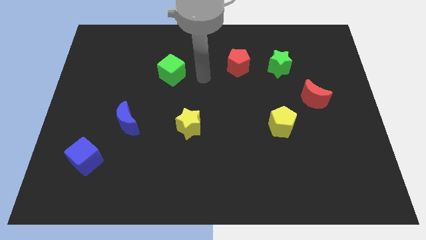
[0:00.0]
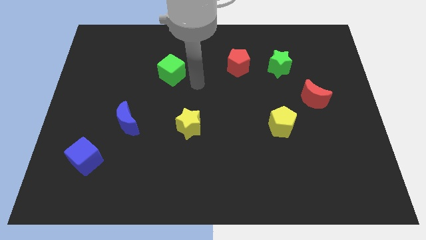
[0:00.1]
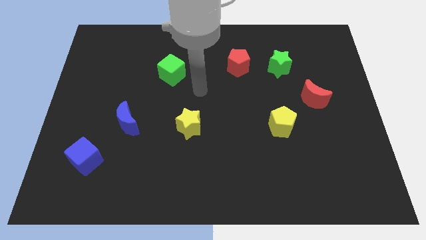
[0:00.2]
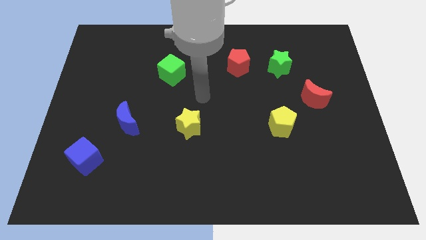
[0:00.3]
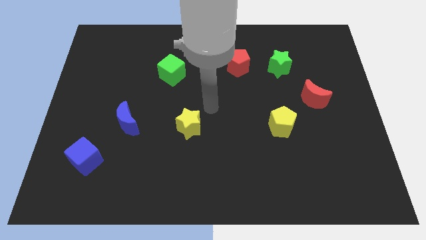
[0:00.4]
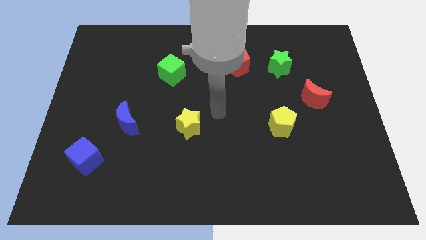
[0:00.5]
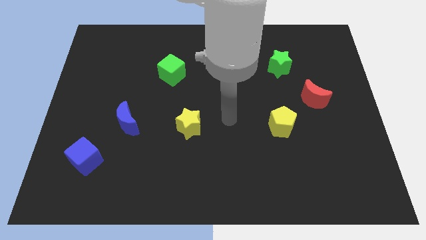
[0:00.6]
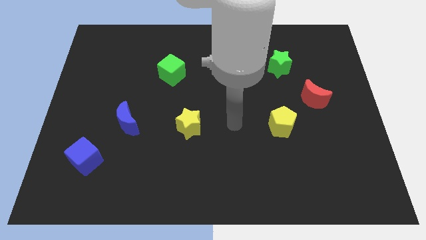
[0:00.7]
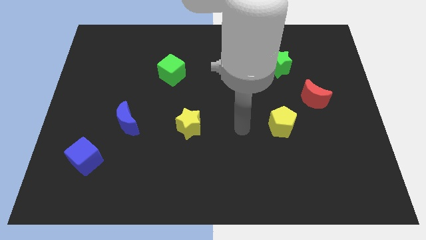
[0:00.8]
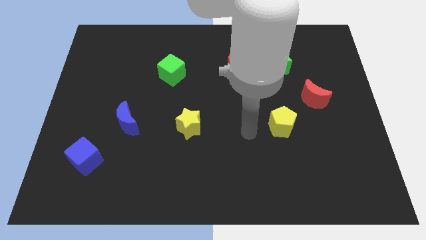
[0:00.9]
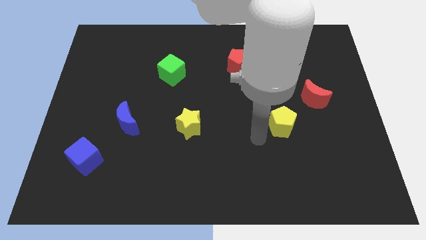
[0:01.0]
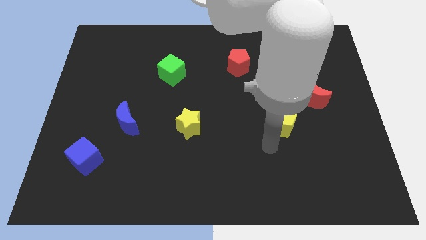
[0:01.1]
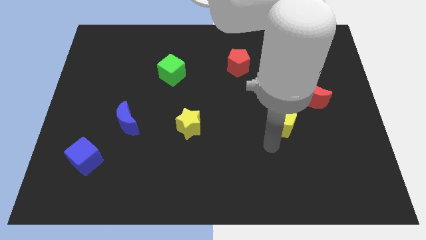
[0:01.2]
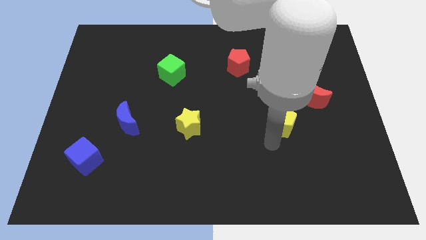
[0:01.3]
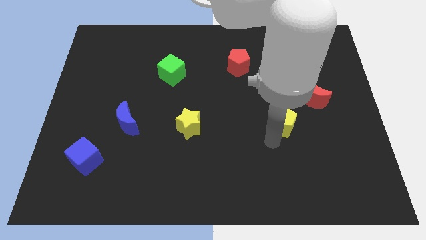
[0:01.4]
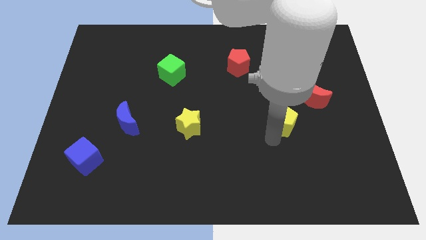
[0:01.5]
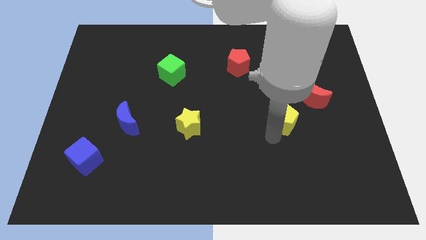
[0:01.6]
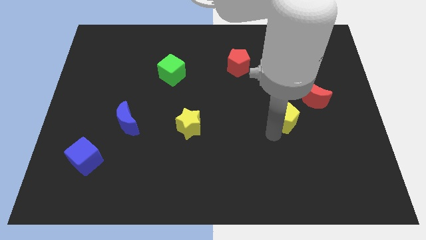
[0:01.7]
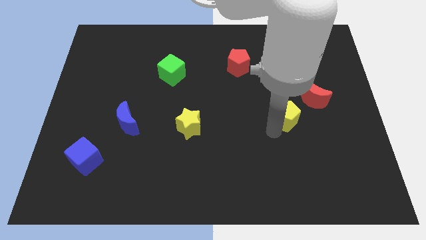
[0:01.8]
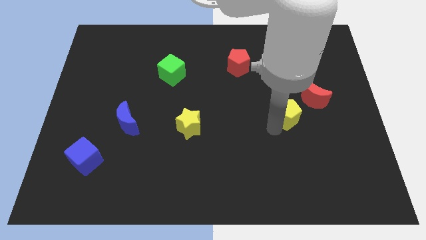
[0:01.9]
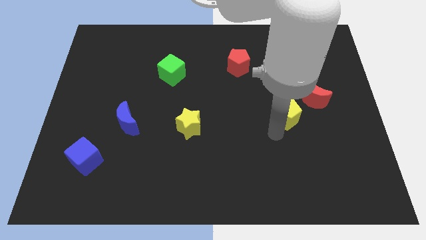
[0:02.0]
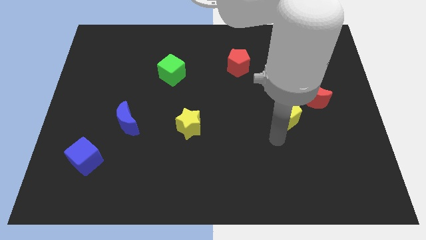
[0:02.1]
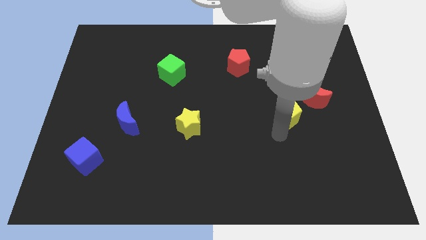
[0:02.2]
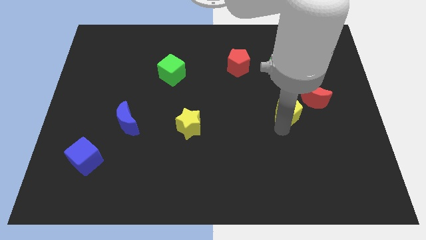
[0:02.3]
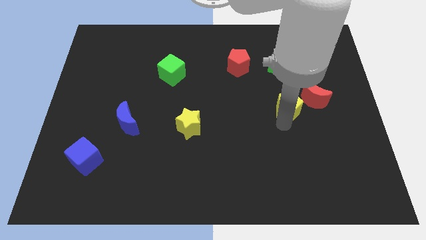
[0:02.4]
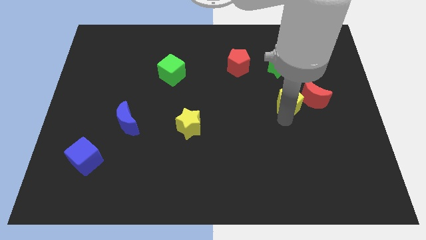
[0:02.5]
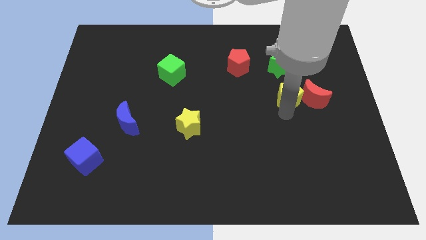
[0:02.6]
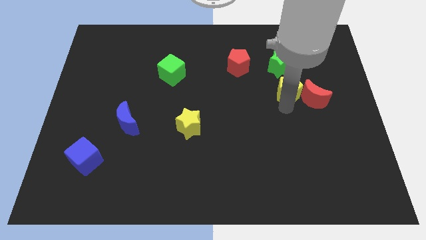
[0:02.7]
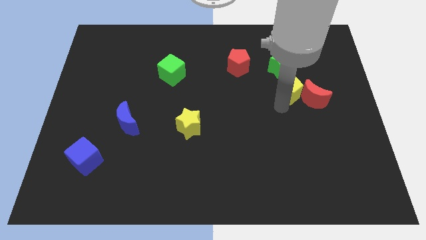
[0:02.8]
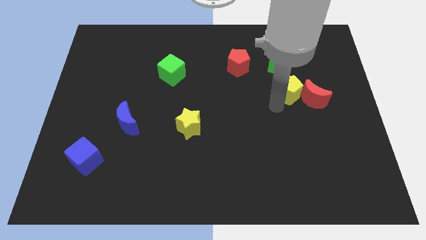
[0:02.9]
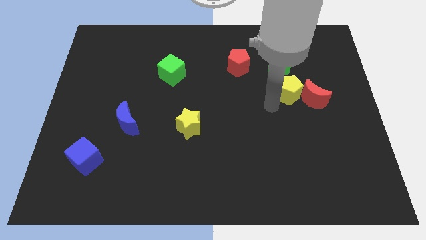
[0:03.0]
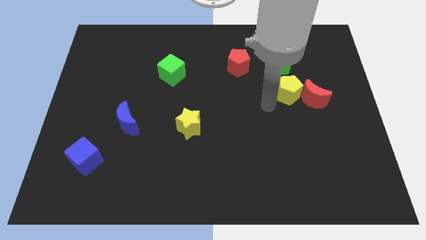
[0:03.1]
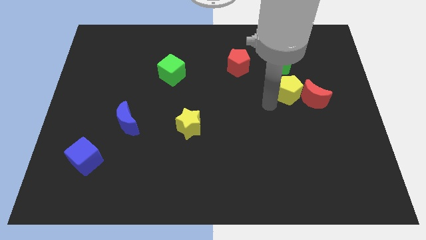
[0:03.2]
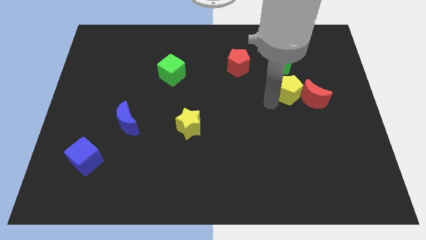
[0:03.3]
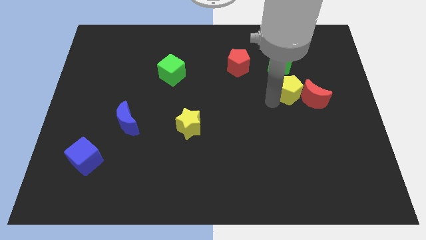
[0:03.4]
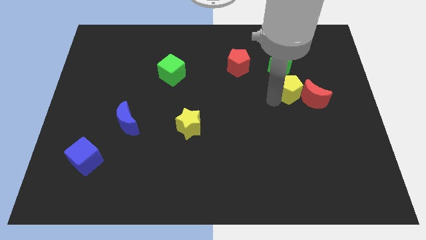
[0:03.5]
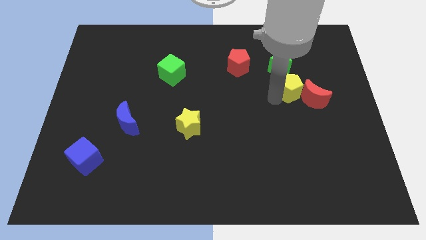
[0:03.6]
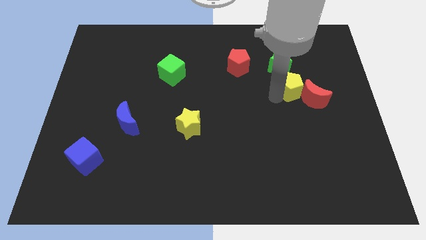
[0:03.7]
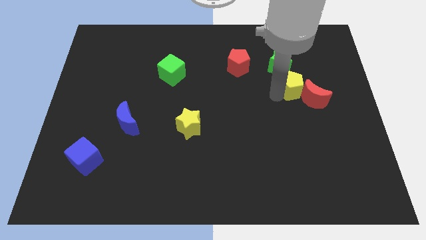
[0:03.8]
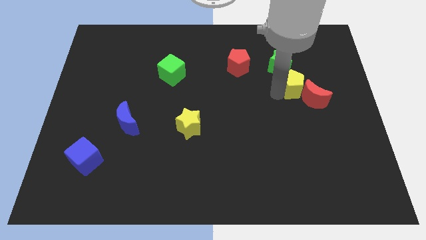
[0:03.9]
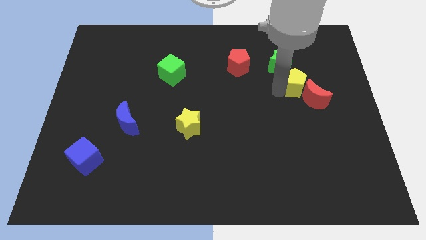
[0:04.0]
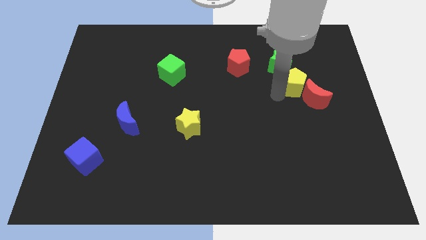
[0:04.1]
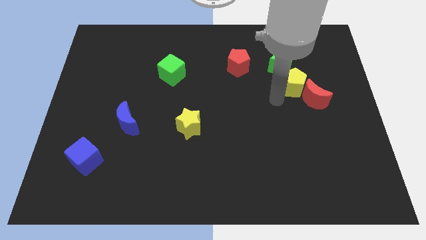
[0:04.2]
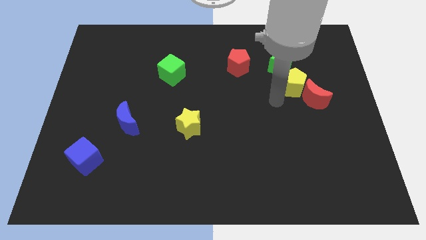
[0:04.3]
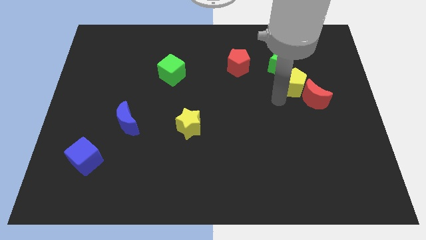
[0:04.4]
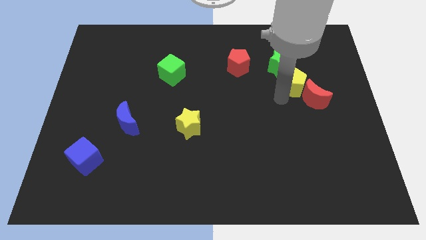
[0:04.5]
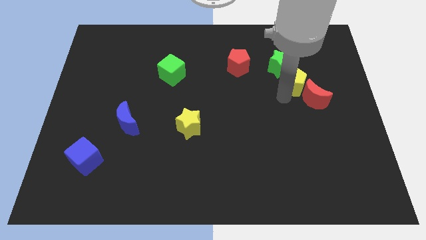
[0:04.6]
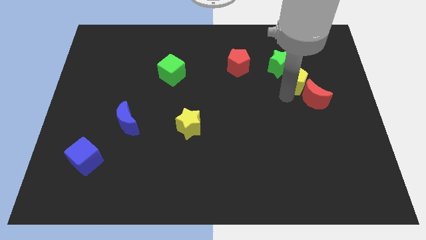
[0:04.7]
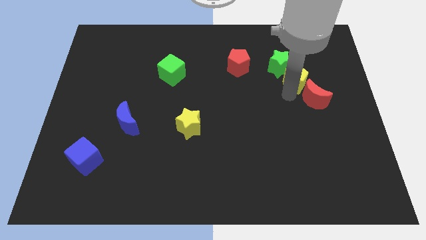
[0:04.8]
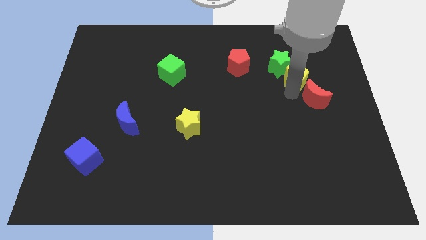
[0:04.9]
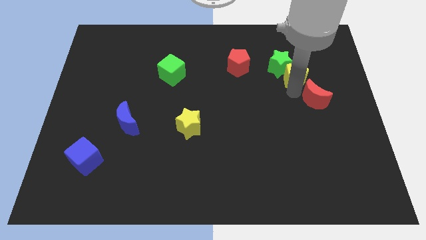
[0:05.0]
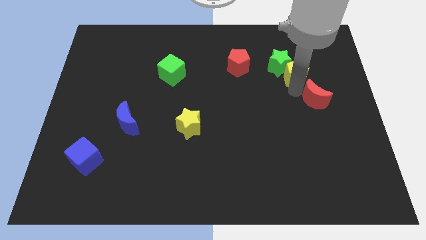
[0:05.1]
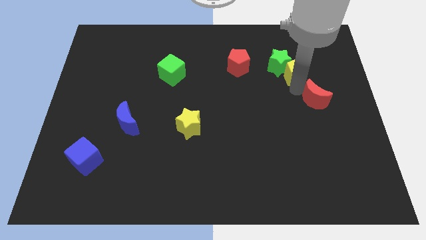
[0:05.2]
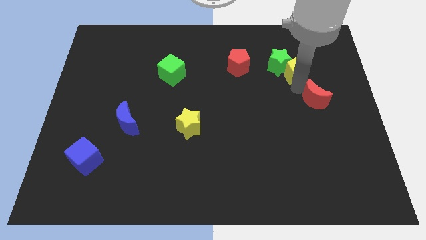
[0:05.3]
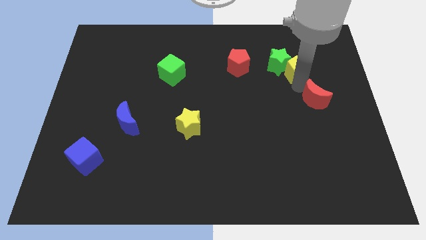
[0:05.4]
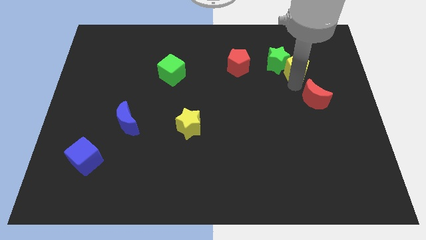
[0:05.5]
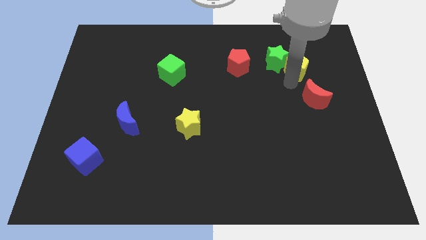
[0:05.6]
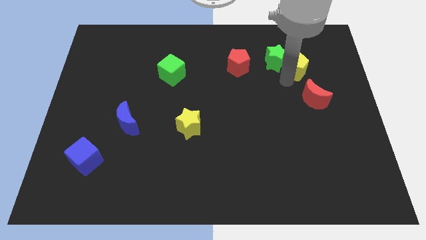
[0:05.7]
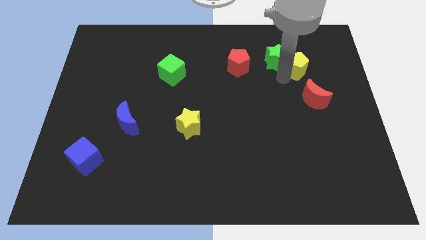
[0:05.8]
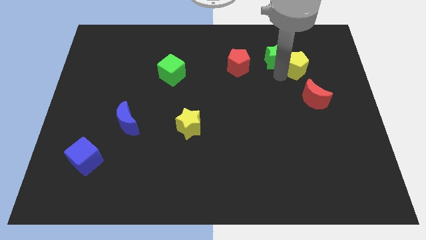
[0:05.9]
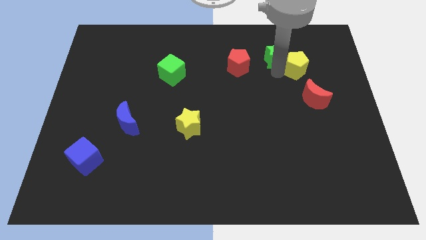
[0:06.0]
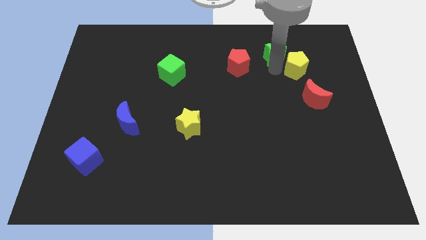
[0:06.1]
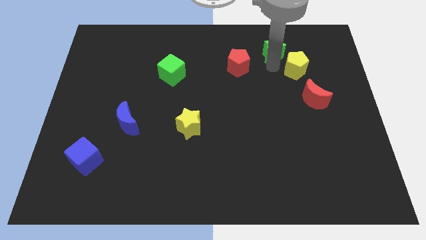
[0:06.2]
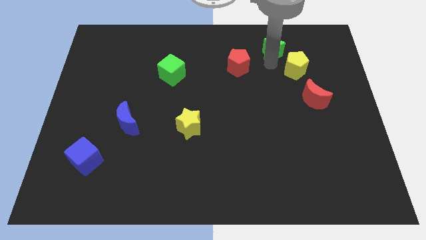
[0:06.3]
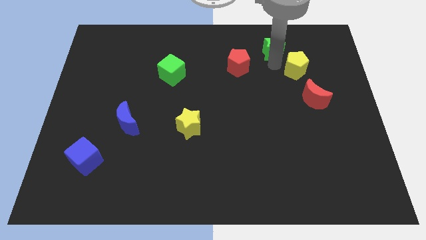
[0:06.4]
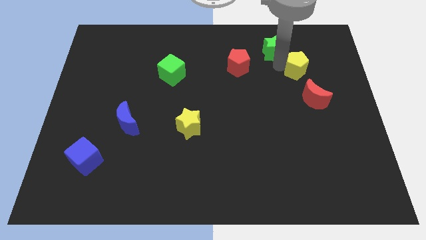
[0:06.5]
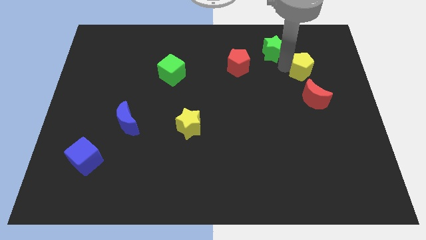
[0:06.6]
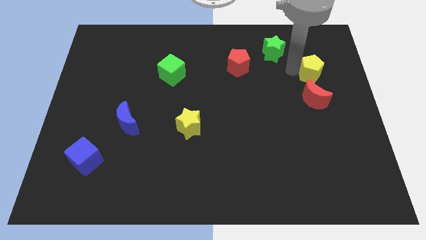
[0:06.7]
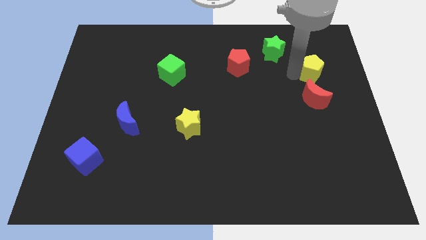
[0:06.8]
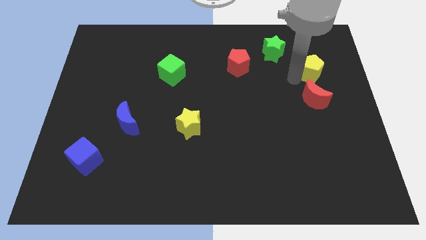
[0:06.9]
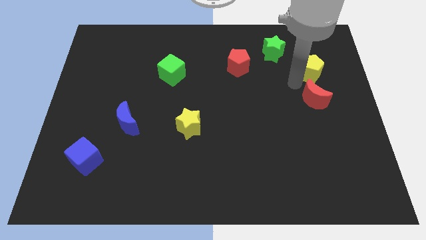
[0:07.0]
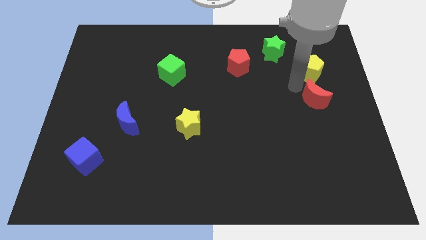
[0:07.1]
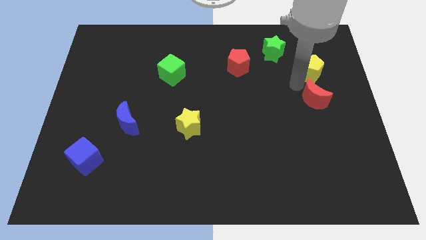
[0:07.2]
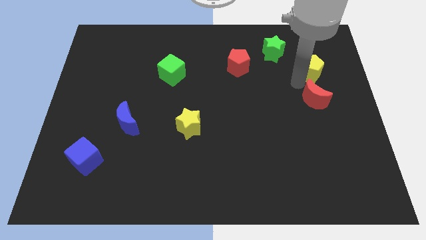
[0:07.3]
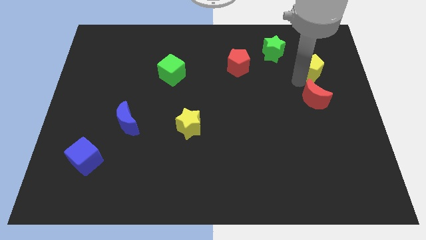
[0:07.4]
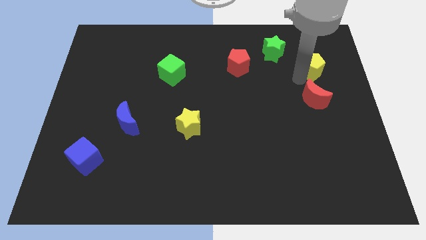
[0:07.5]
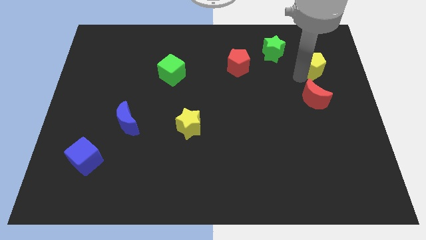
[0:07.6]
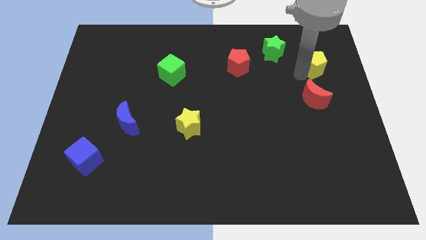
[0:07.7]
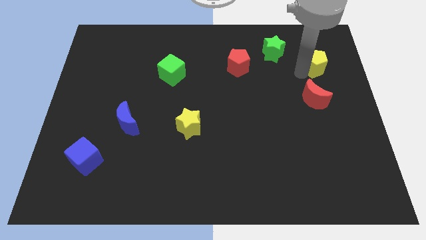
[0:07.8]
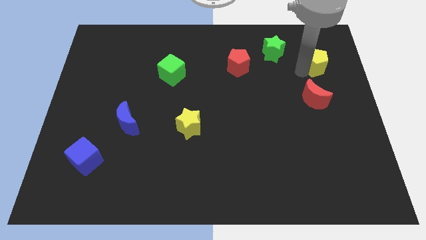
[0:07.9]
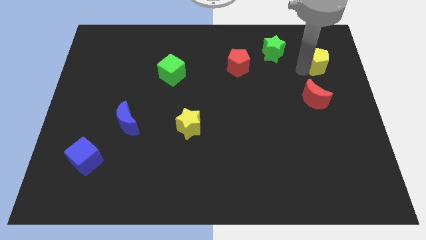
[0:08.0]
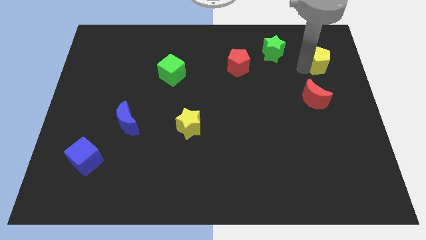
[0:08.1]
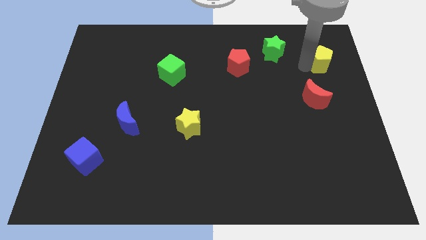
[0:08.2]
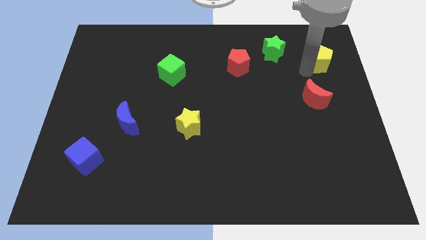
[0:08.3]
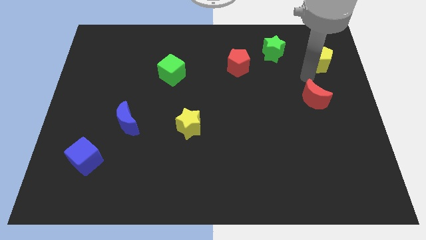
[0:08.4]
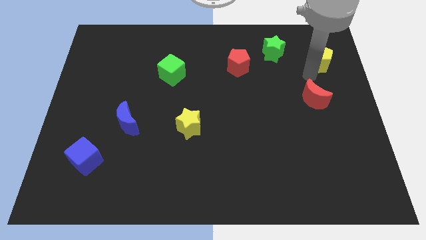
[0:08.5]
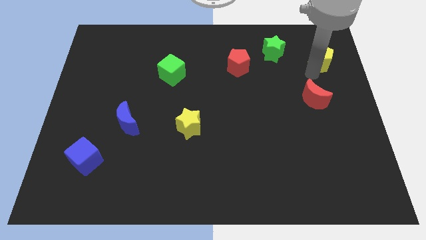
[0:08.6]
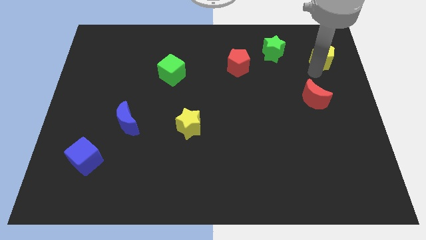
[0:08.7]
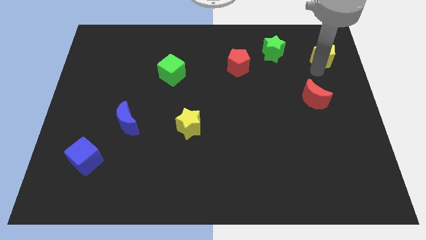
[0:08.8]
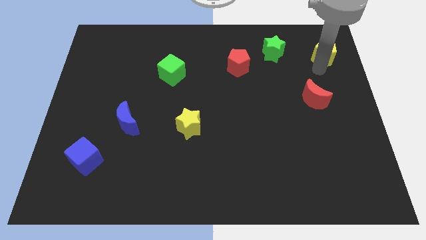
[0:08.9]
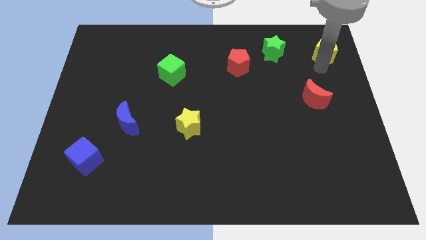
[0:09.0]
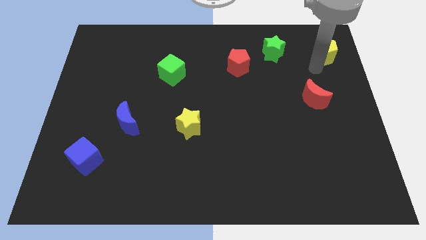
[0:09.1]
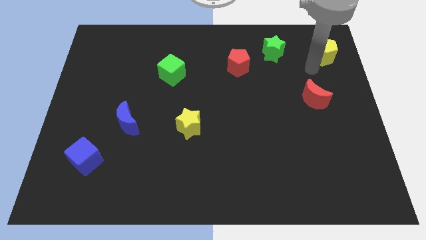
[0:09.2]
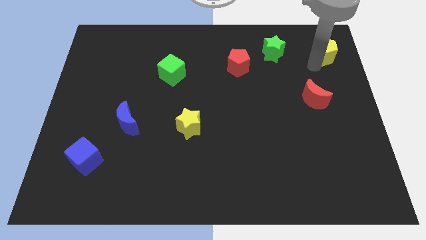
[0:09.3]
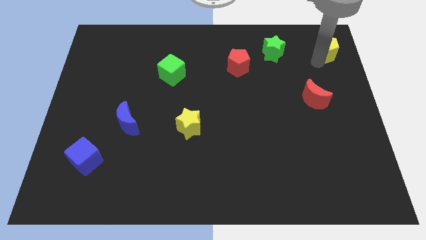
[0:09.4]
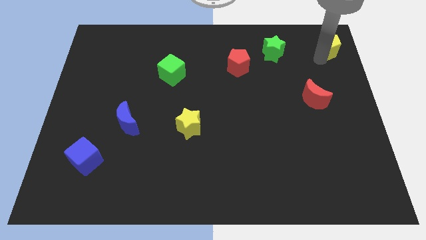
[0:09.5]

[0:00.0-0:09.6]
slide the yellow pentagon to the upper right corner
